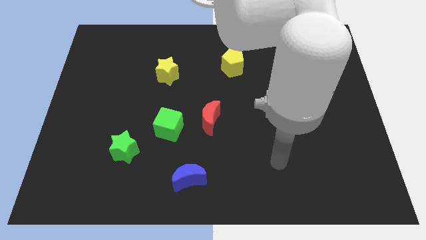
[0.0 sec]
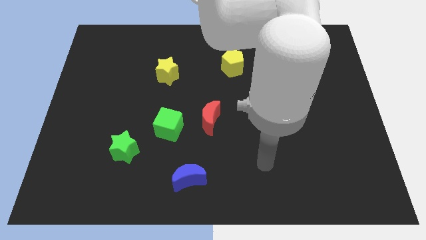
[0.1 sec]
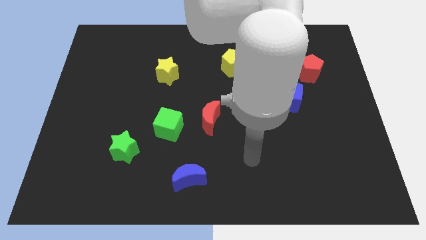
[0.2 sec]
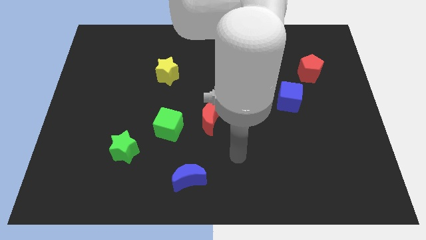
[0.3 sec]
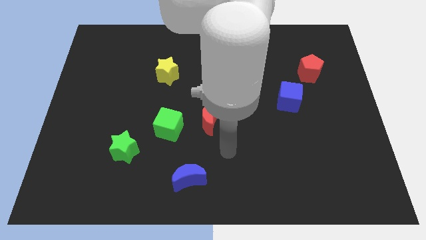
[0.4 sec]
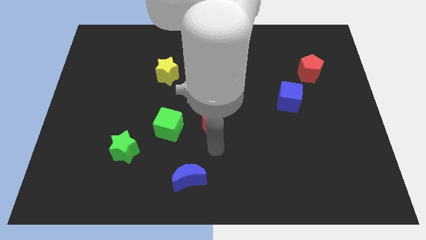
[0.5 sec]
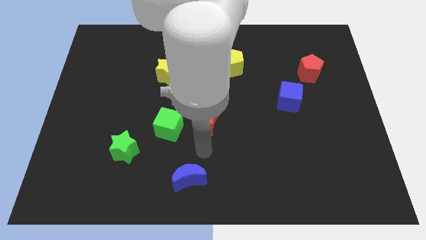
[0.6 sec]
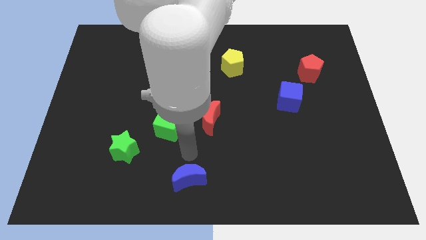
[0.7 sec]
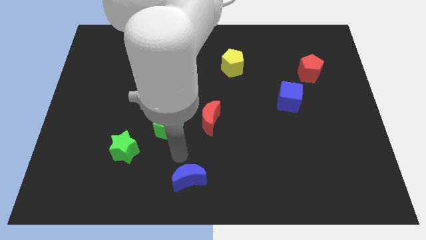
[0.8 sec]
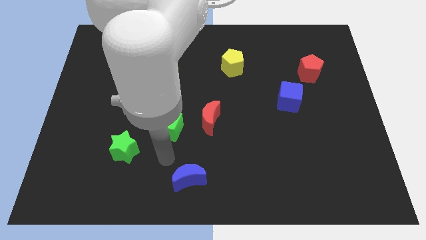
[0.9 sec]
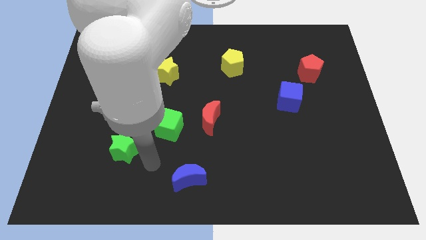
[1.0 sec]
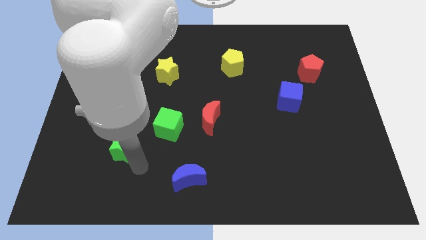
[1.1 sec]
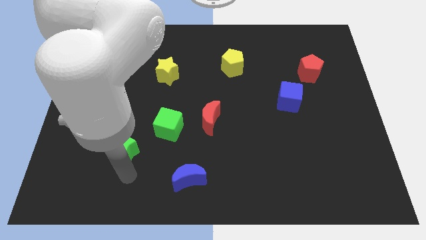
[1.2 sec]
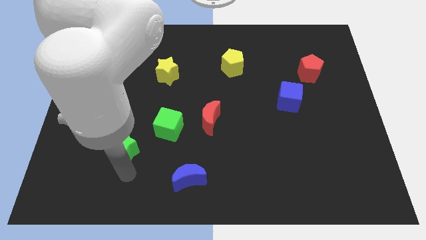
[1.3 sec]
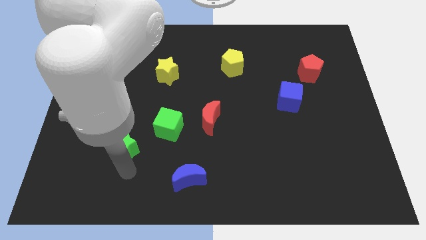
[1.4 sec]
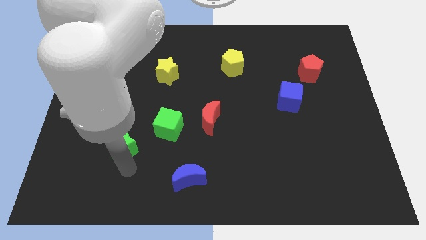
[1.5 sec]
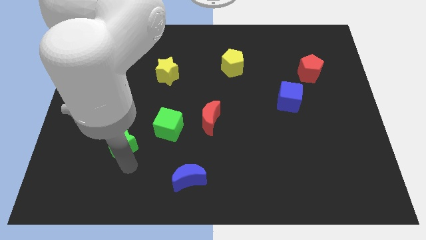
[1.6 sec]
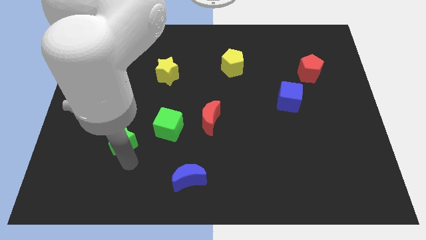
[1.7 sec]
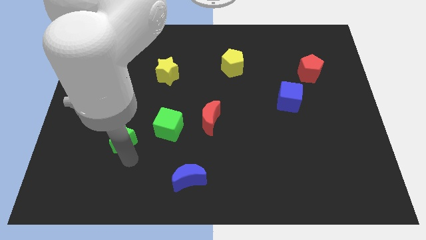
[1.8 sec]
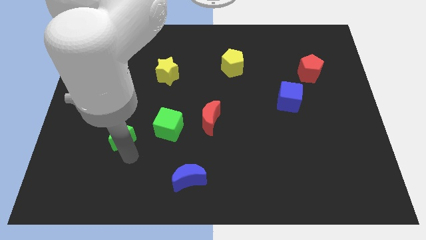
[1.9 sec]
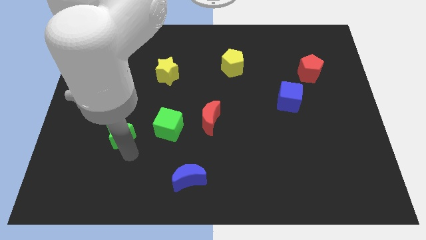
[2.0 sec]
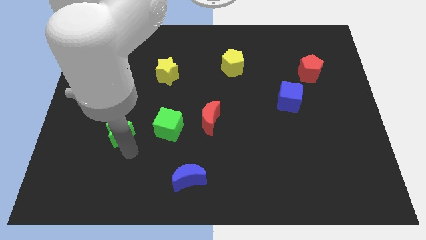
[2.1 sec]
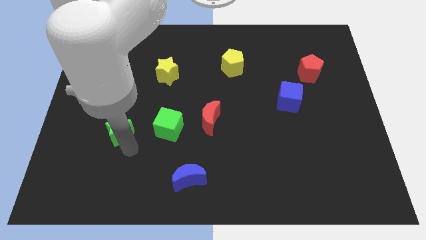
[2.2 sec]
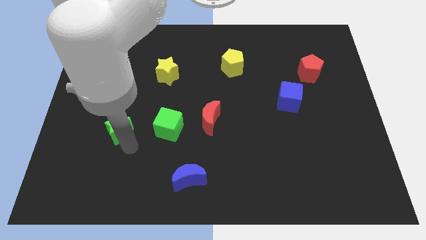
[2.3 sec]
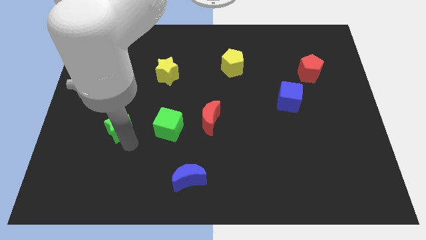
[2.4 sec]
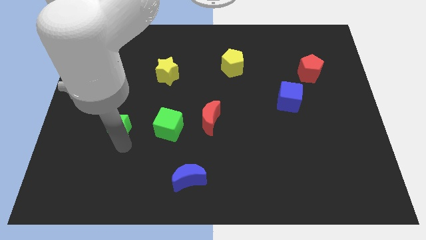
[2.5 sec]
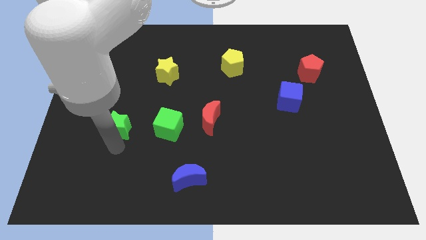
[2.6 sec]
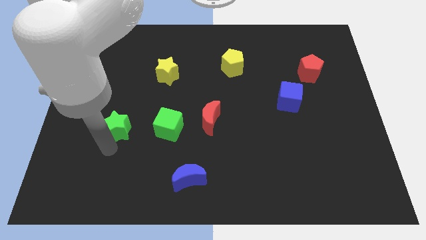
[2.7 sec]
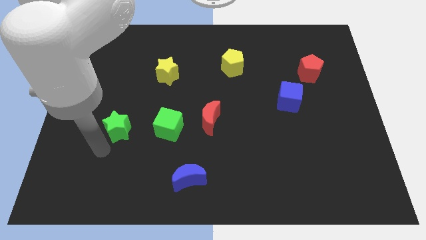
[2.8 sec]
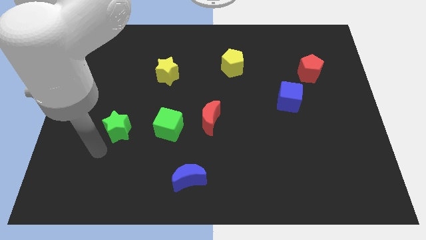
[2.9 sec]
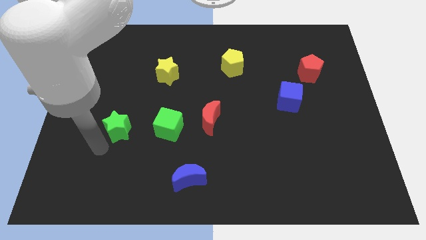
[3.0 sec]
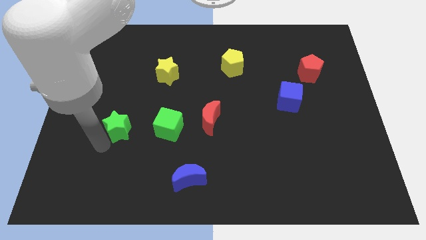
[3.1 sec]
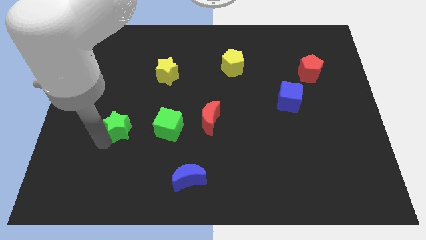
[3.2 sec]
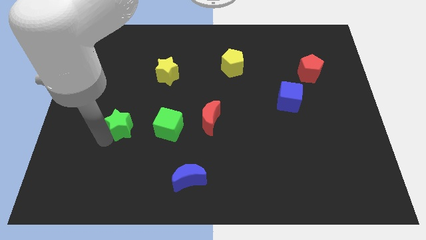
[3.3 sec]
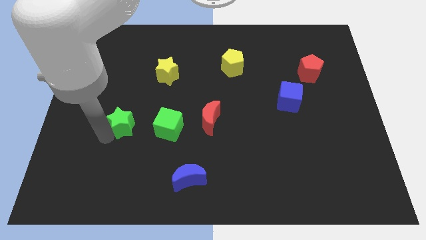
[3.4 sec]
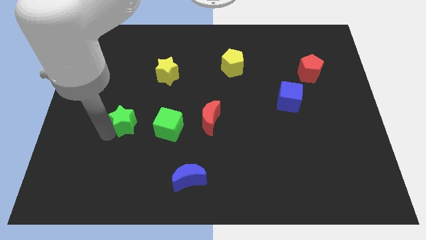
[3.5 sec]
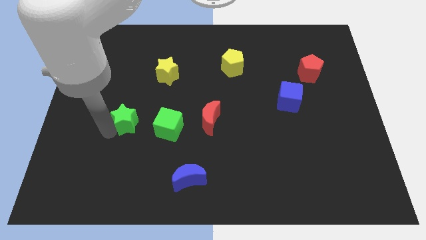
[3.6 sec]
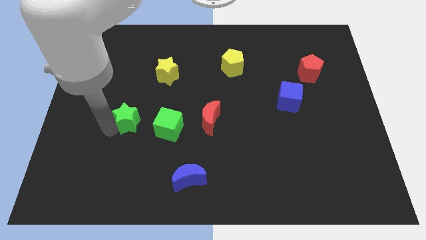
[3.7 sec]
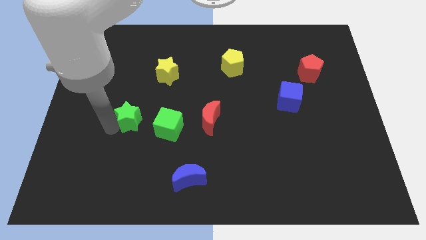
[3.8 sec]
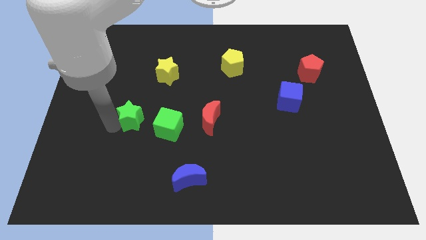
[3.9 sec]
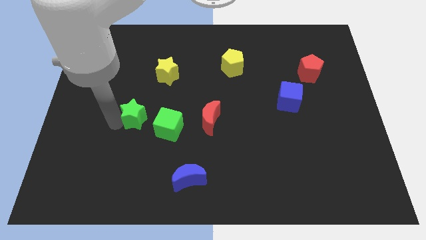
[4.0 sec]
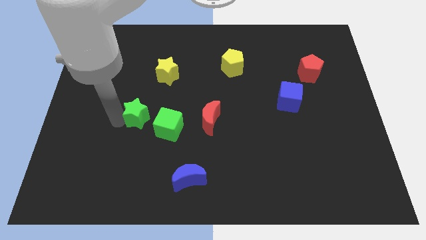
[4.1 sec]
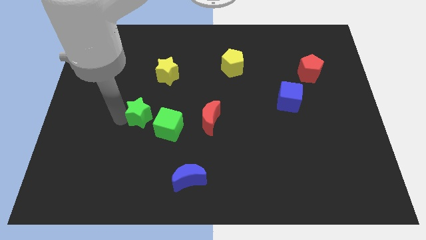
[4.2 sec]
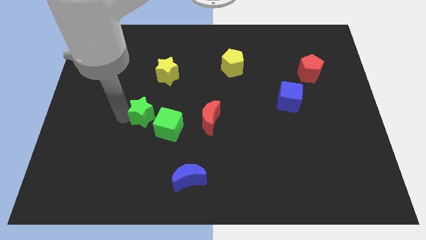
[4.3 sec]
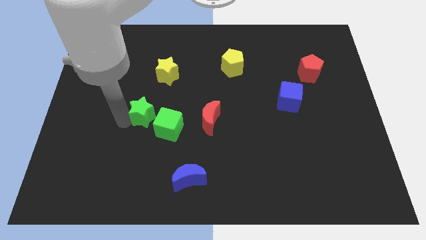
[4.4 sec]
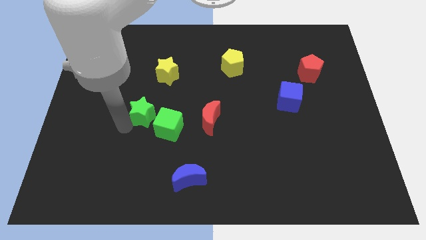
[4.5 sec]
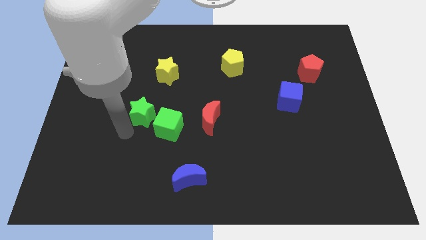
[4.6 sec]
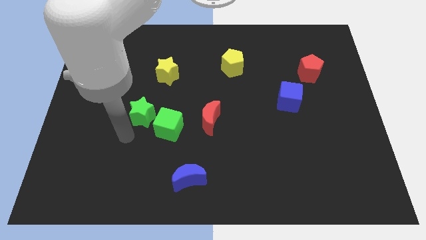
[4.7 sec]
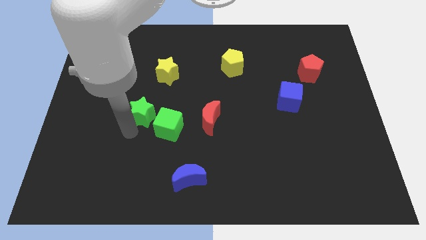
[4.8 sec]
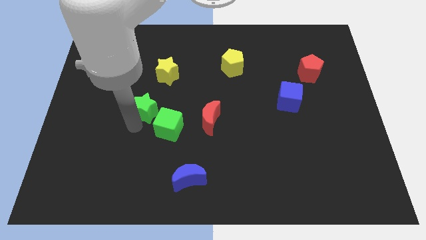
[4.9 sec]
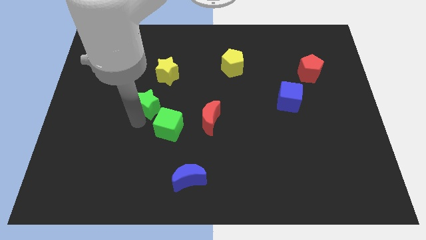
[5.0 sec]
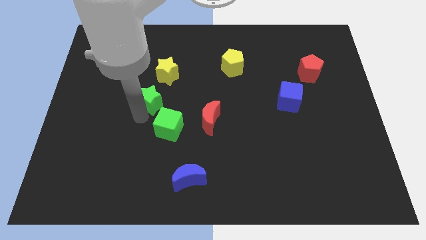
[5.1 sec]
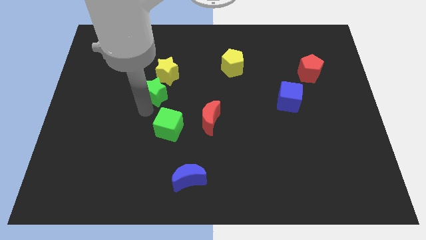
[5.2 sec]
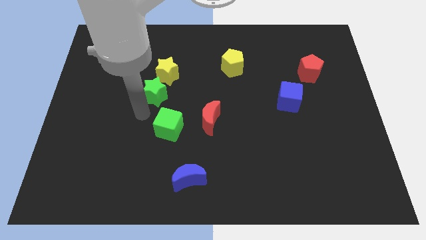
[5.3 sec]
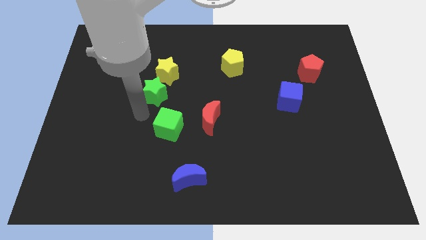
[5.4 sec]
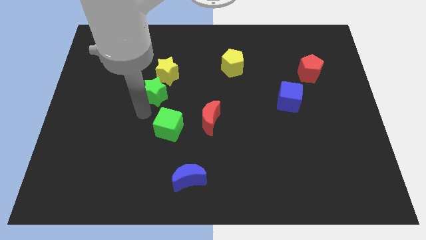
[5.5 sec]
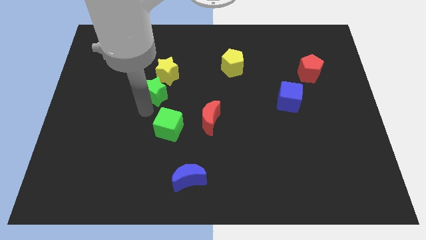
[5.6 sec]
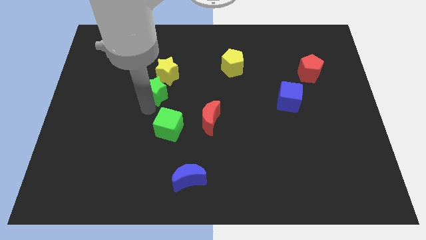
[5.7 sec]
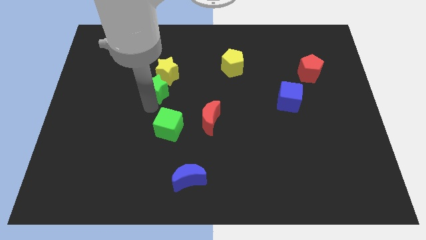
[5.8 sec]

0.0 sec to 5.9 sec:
put the green star next to the yellow star

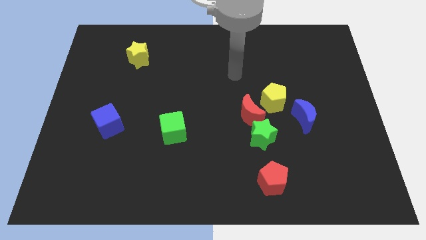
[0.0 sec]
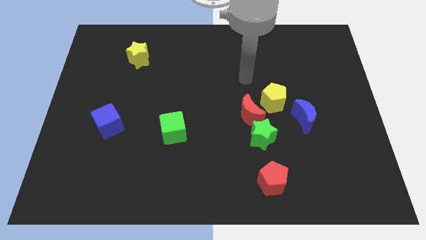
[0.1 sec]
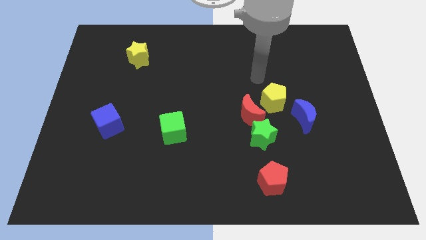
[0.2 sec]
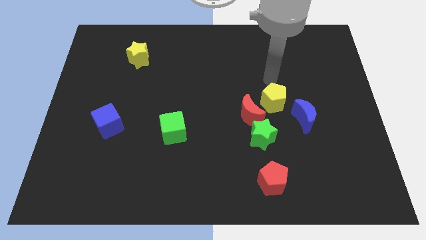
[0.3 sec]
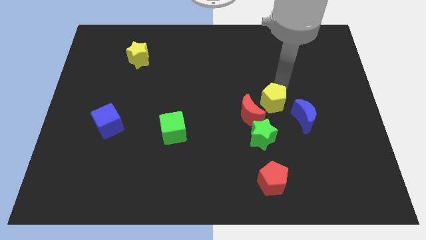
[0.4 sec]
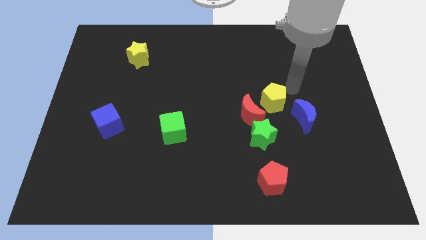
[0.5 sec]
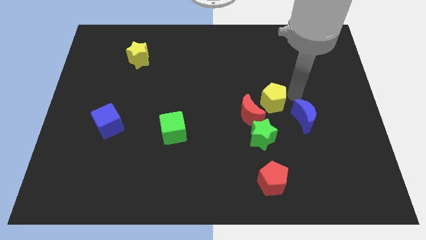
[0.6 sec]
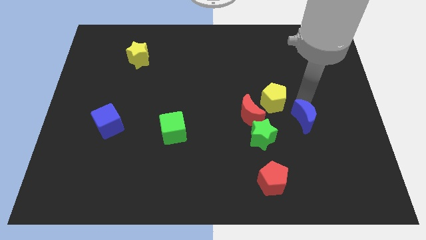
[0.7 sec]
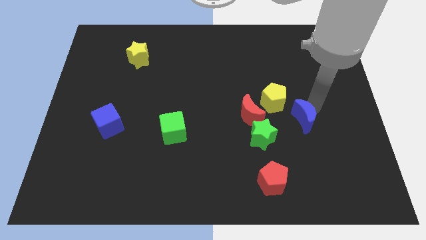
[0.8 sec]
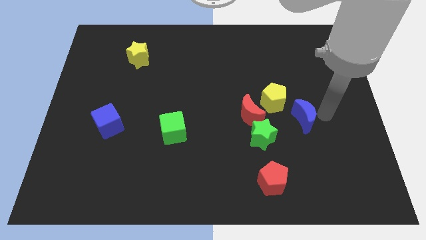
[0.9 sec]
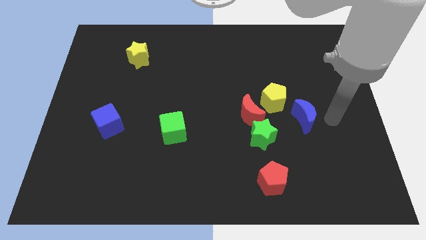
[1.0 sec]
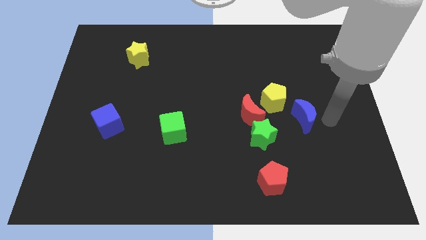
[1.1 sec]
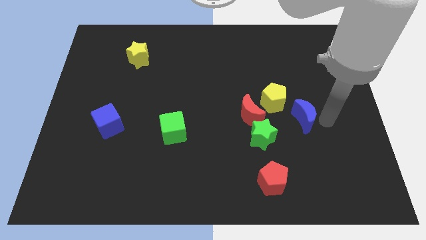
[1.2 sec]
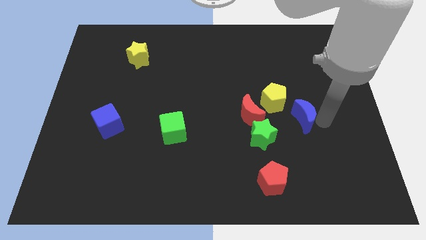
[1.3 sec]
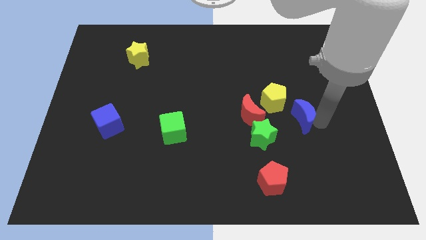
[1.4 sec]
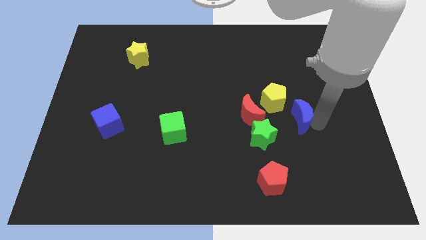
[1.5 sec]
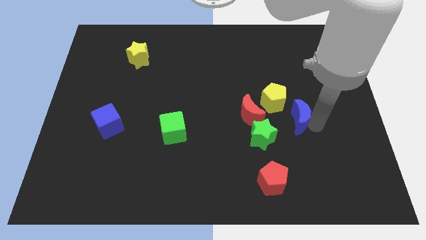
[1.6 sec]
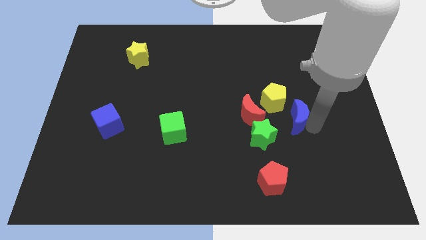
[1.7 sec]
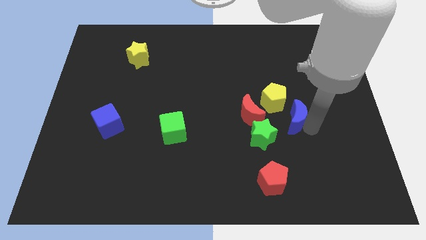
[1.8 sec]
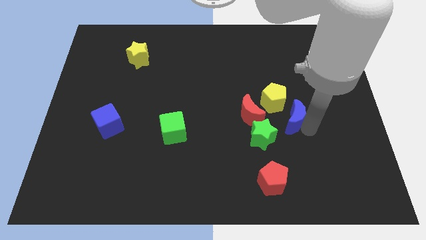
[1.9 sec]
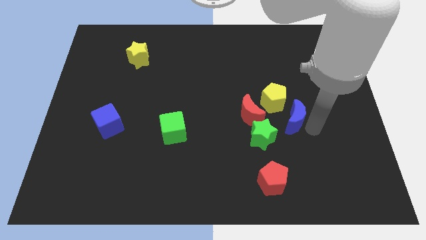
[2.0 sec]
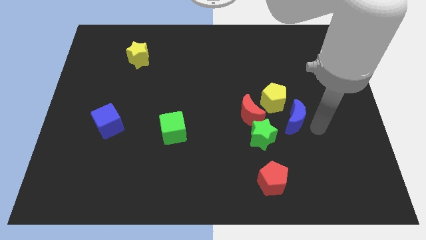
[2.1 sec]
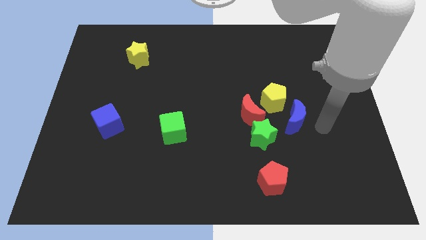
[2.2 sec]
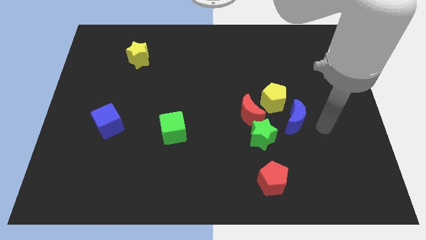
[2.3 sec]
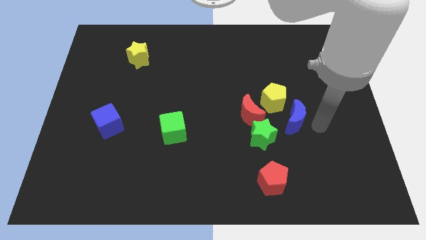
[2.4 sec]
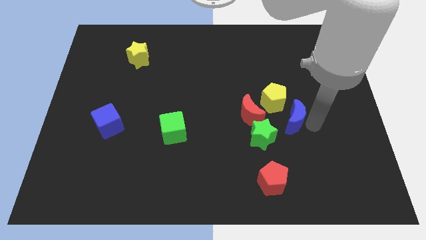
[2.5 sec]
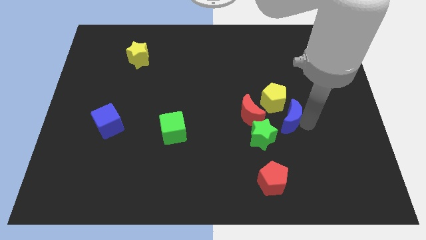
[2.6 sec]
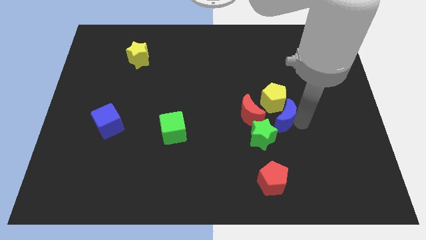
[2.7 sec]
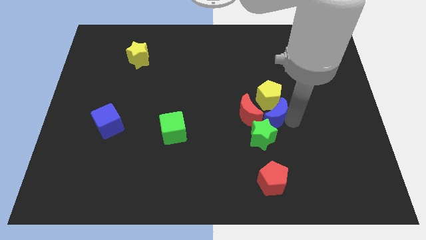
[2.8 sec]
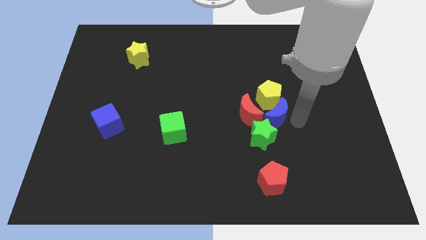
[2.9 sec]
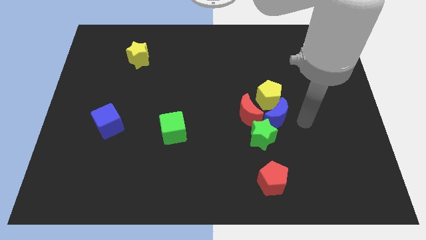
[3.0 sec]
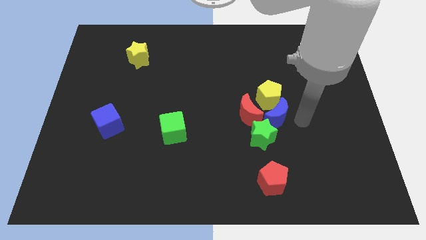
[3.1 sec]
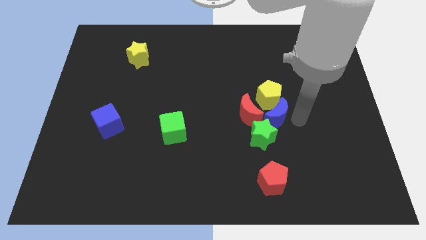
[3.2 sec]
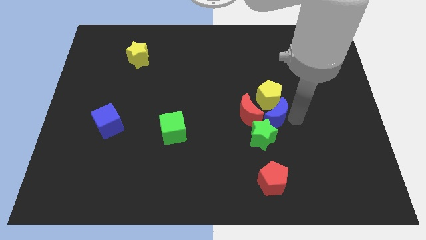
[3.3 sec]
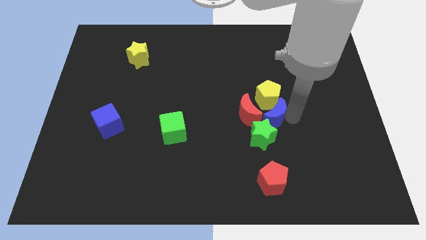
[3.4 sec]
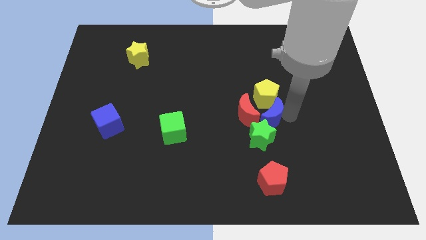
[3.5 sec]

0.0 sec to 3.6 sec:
put the blue moon next to the red moon
